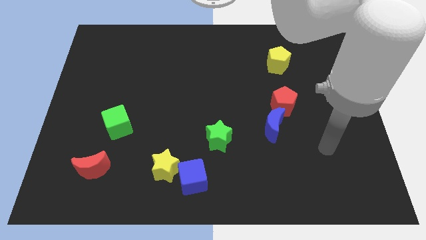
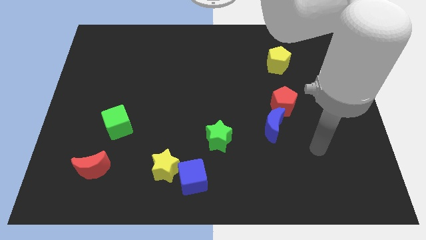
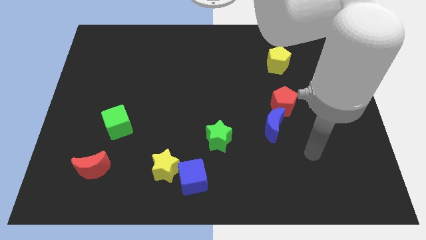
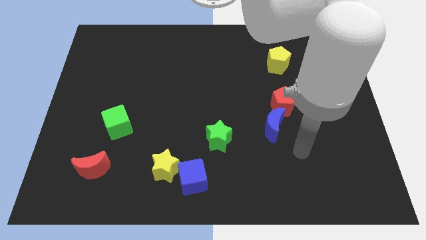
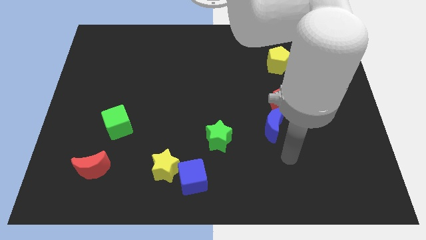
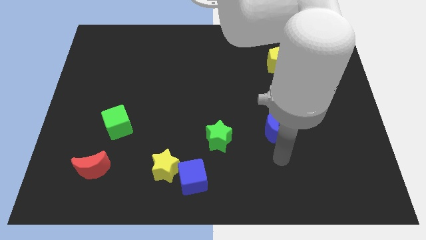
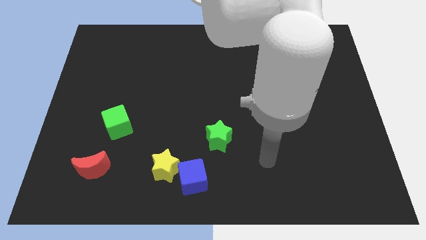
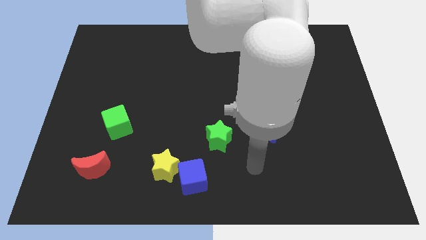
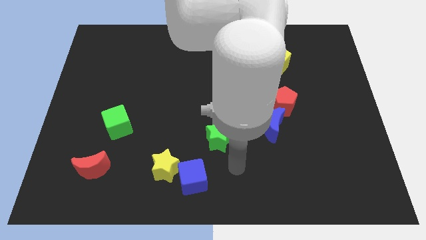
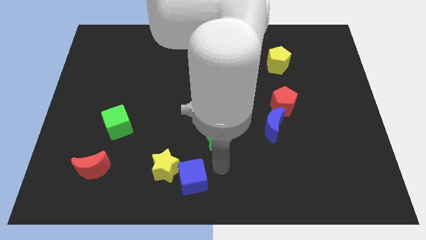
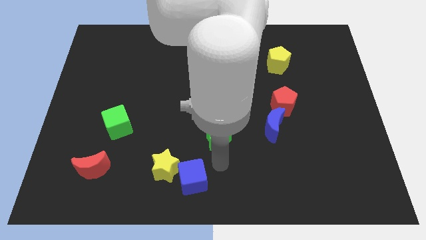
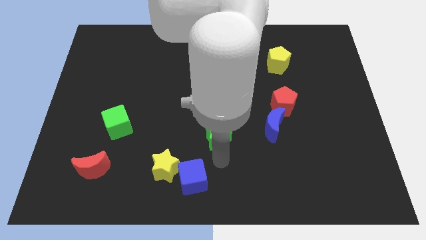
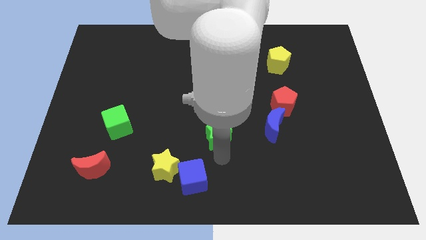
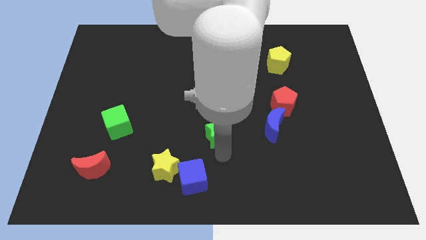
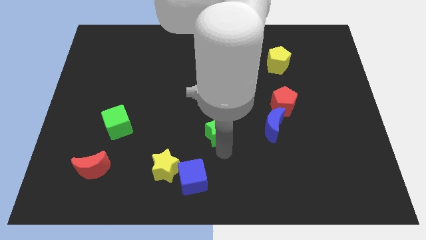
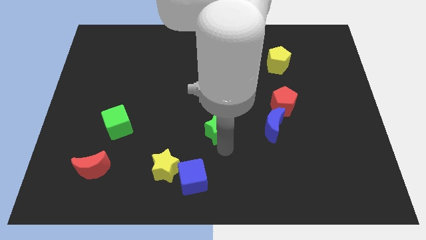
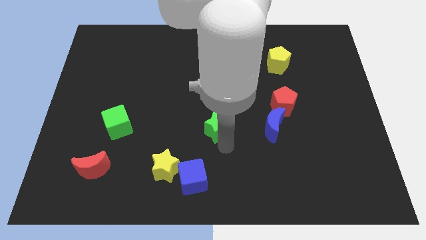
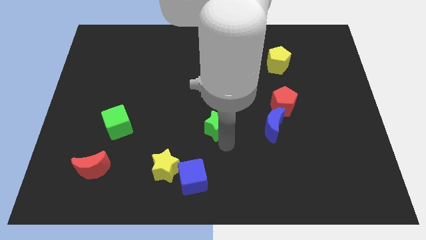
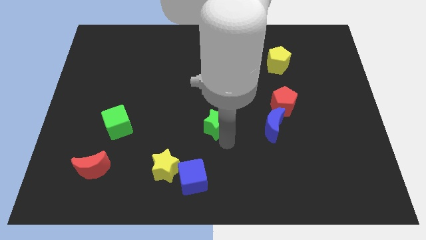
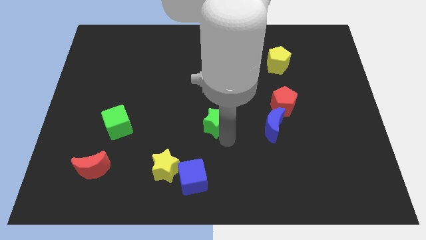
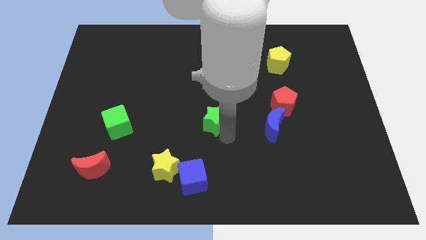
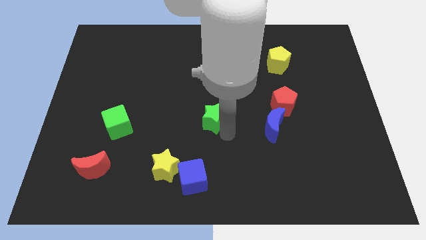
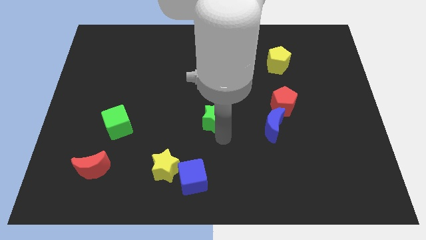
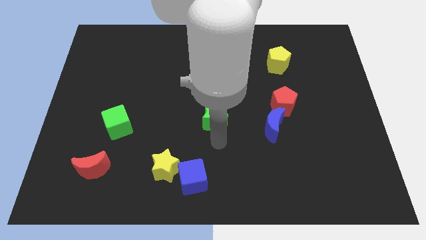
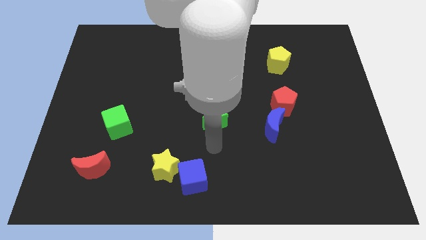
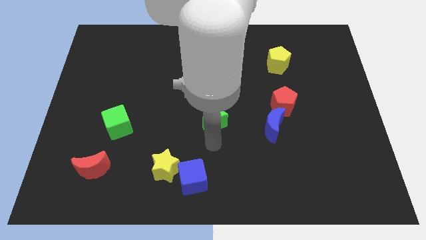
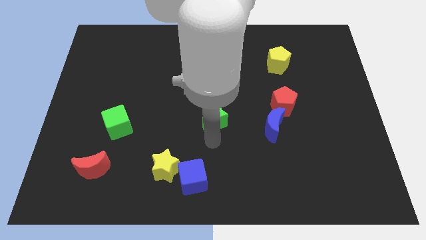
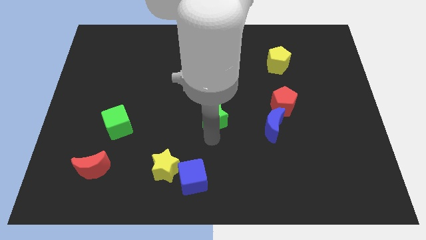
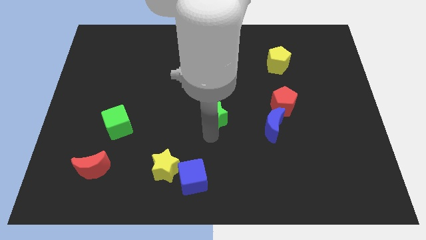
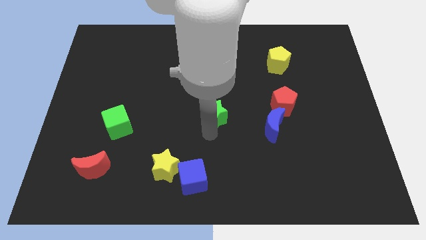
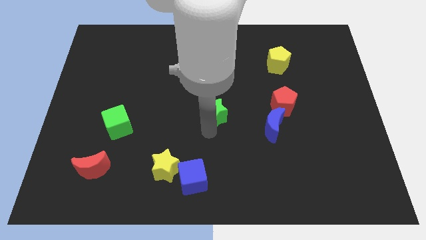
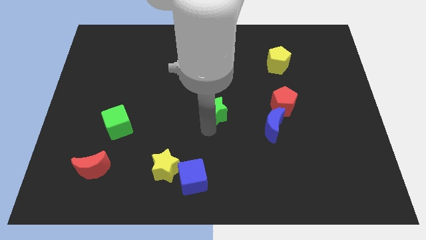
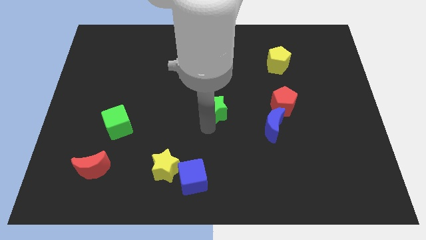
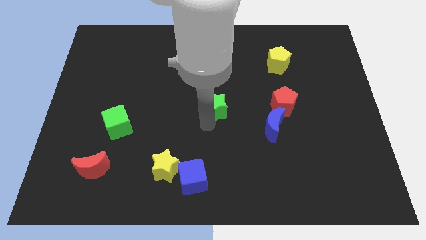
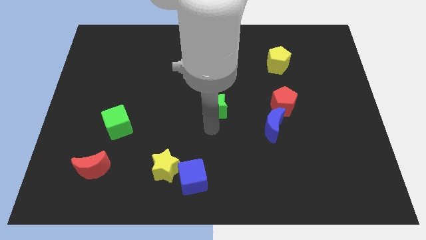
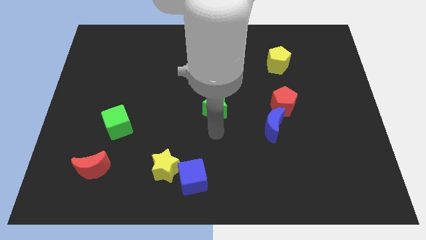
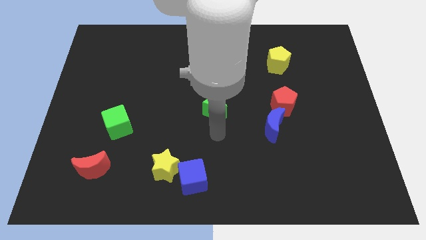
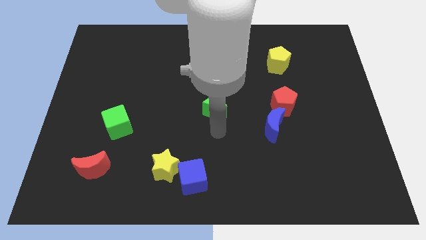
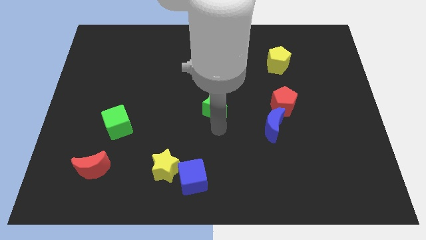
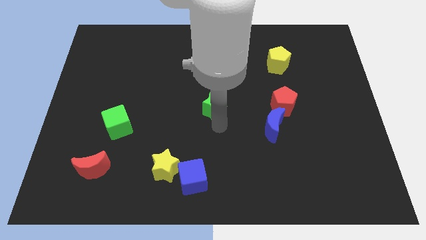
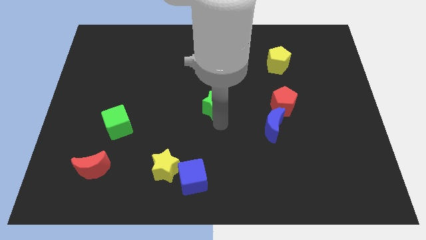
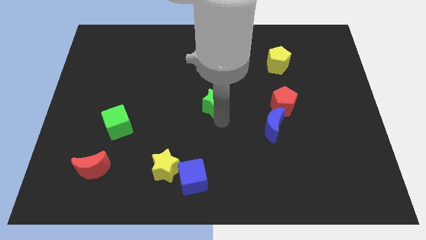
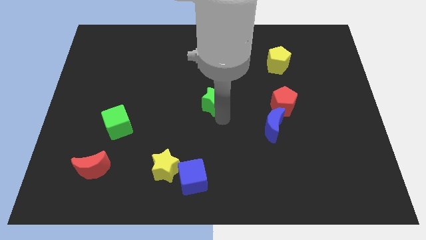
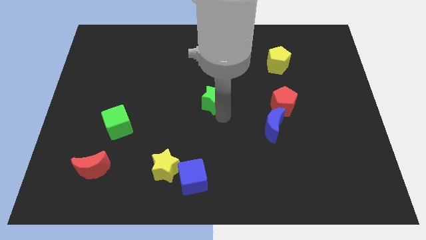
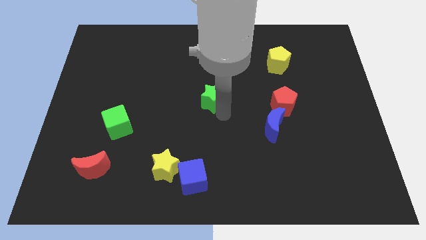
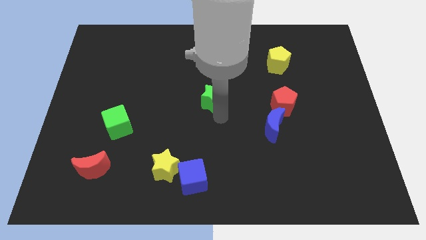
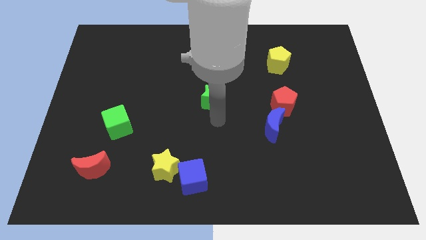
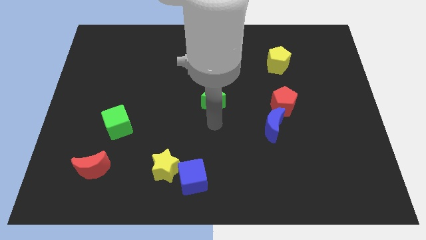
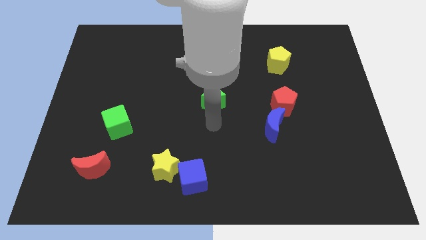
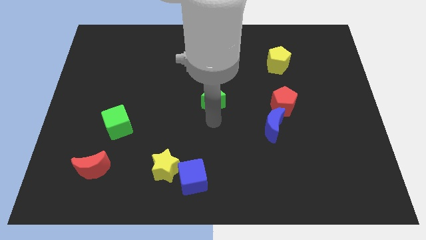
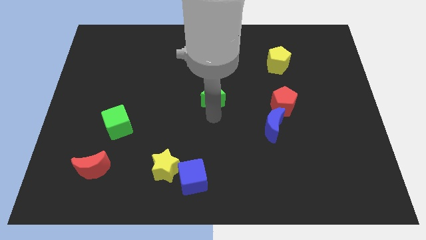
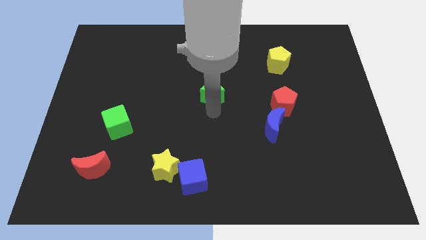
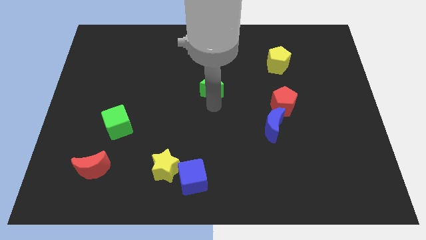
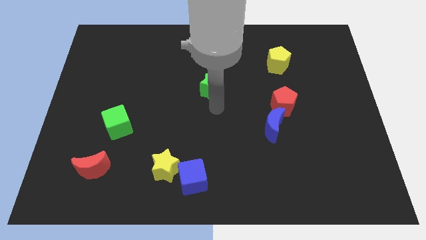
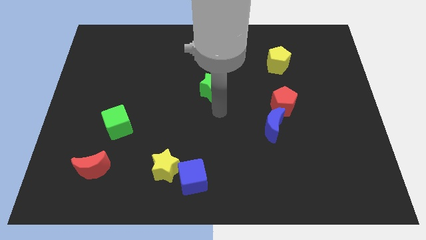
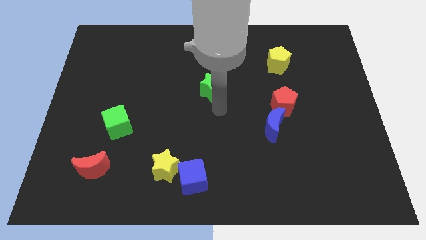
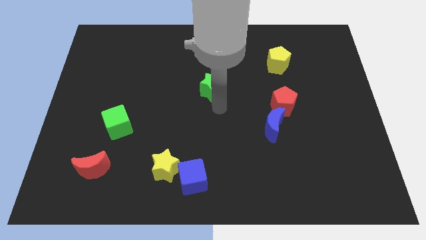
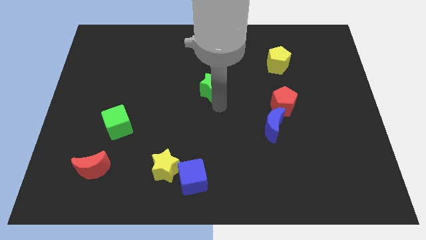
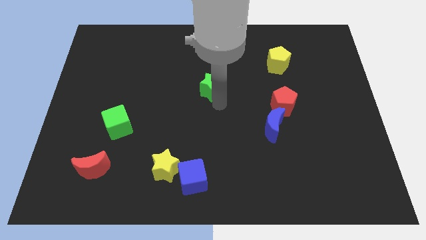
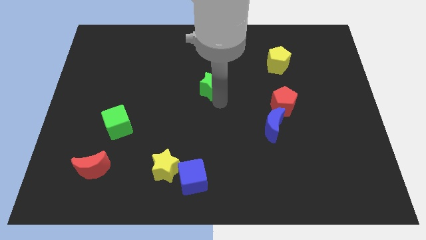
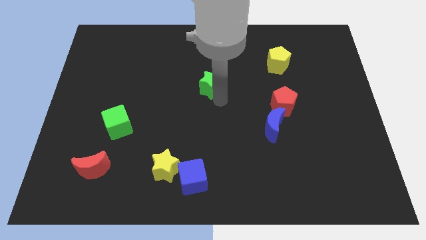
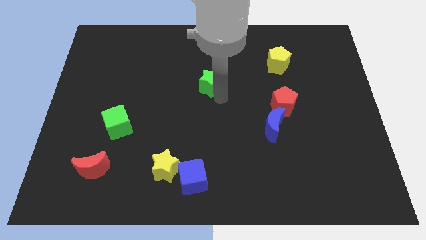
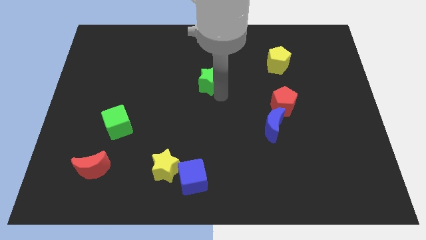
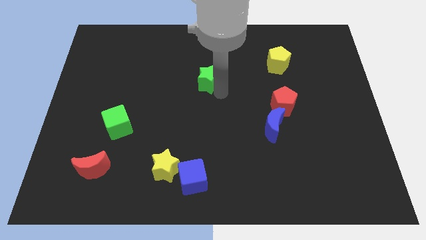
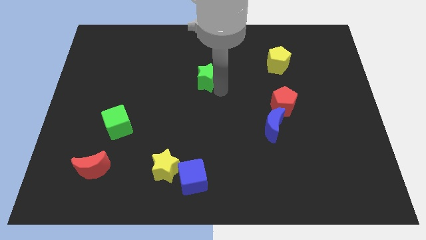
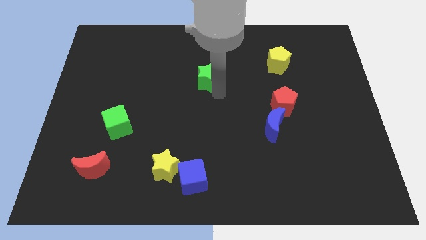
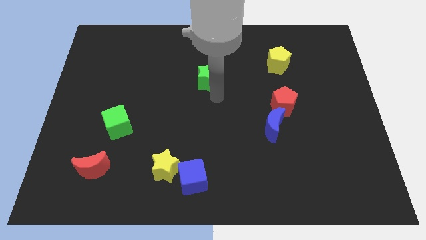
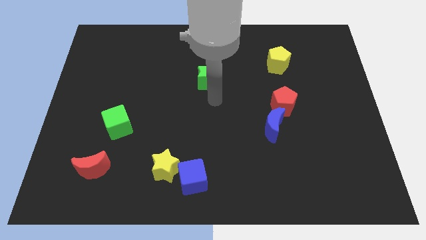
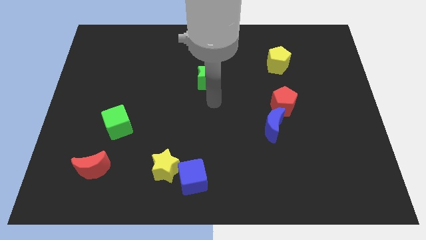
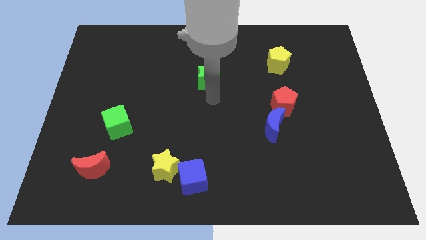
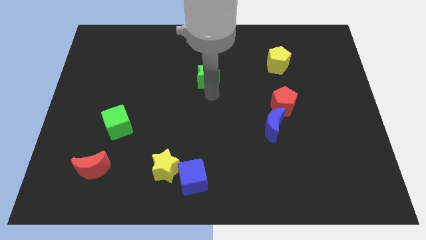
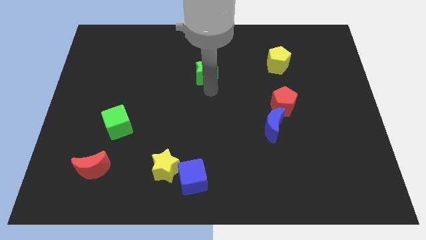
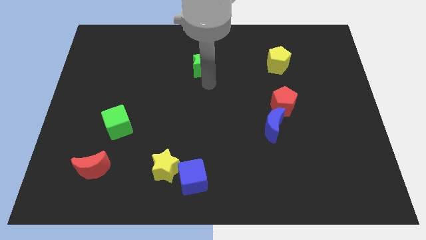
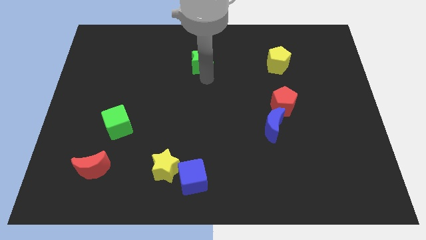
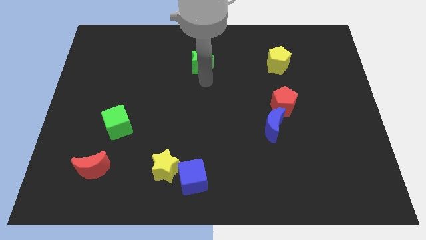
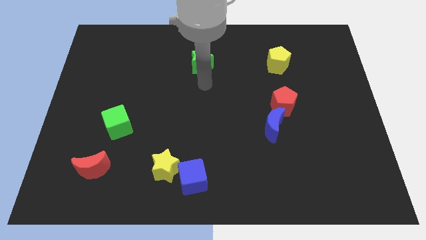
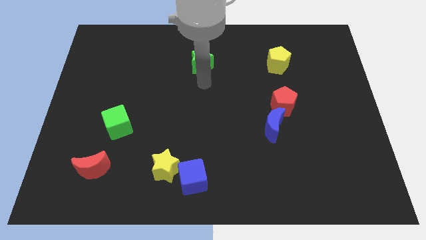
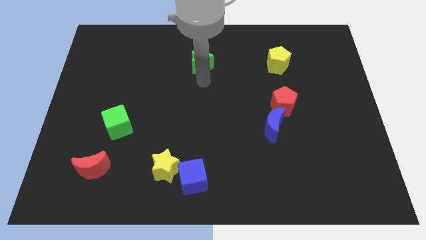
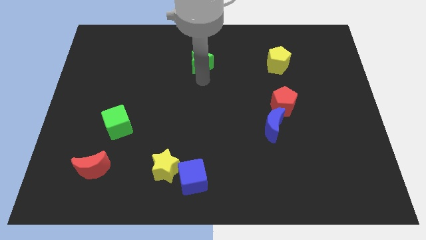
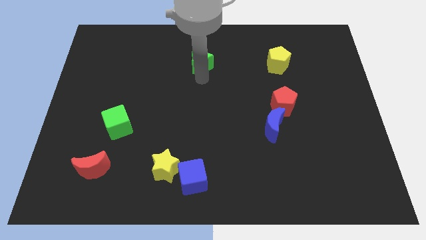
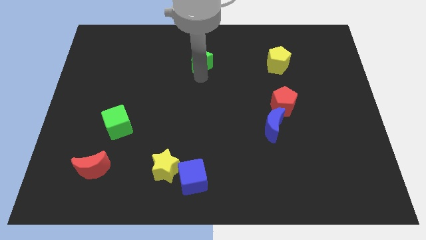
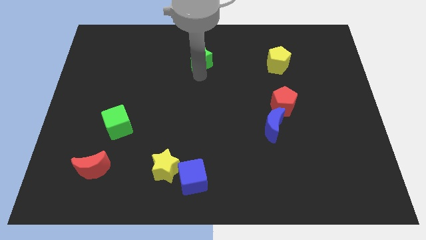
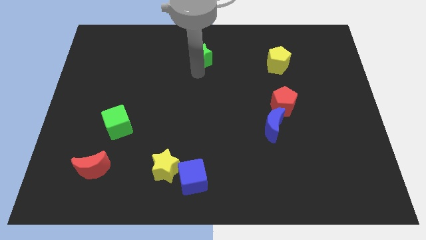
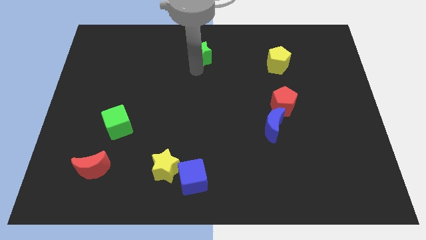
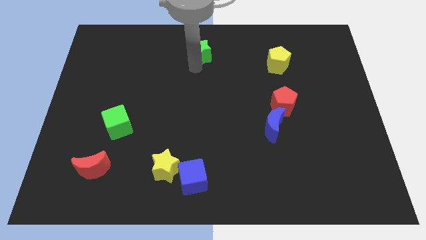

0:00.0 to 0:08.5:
push the green star to the towards your base
